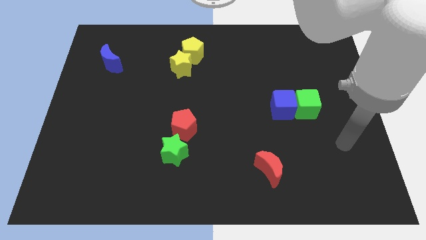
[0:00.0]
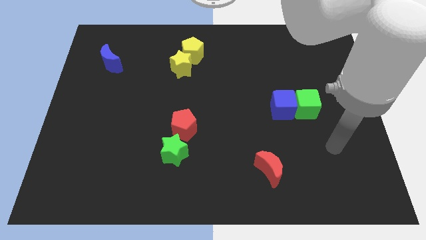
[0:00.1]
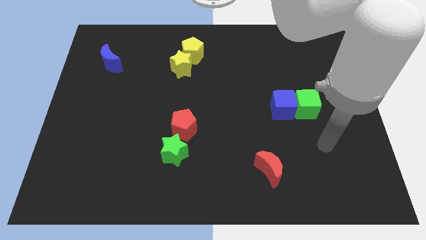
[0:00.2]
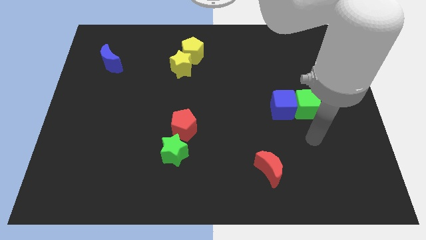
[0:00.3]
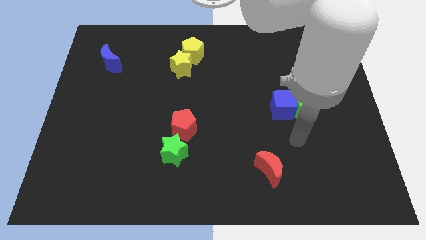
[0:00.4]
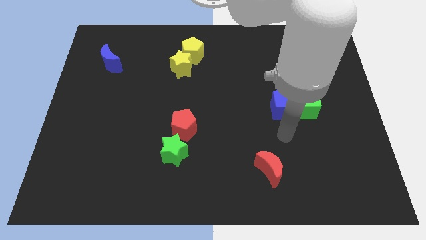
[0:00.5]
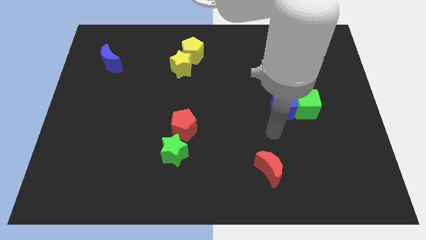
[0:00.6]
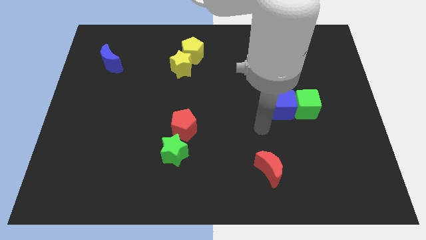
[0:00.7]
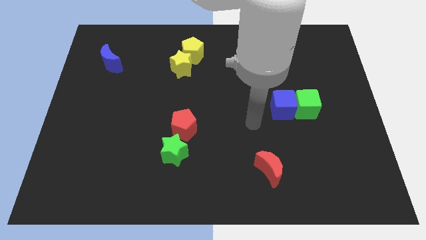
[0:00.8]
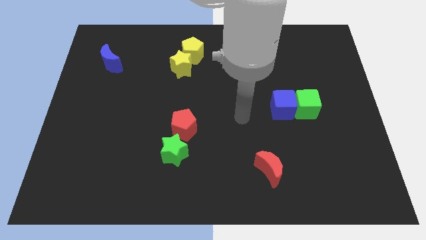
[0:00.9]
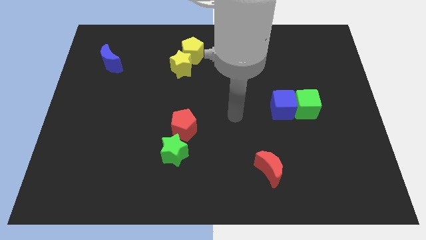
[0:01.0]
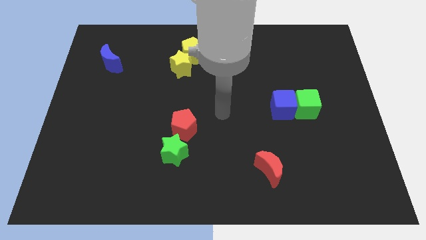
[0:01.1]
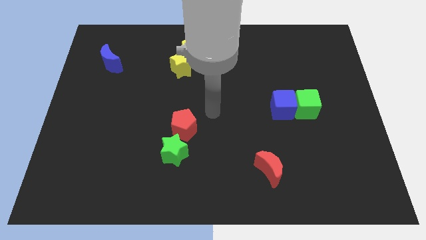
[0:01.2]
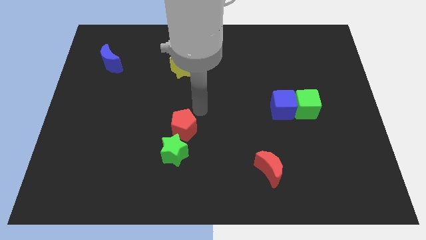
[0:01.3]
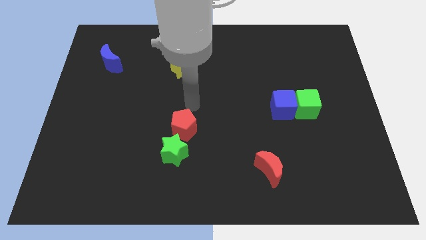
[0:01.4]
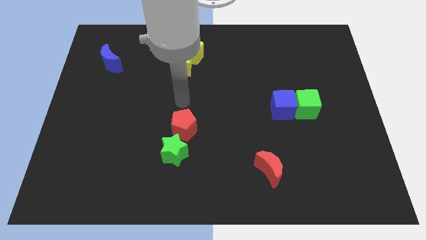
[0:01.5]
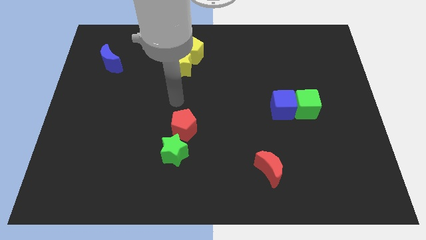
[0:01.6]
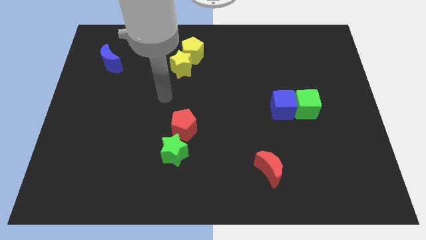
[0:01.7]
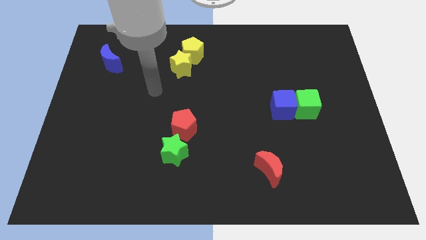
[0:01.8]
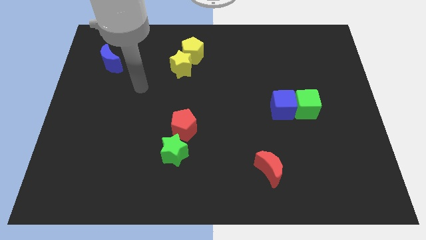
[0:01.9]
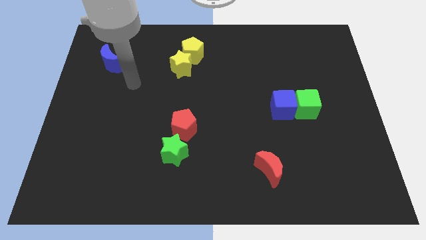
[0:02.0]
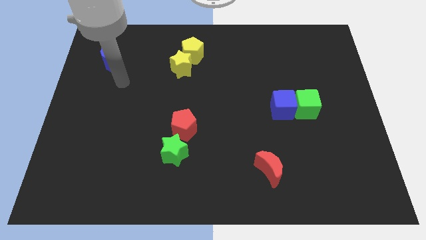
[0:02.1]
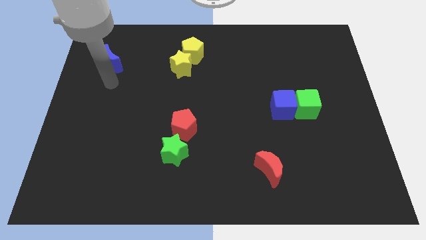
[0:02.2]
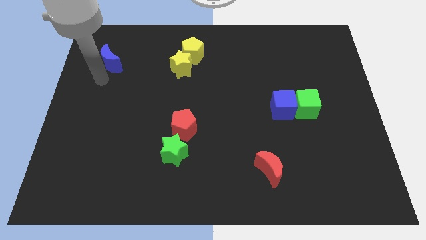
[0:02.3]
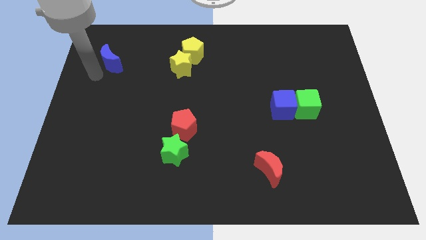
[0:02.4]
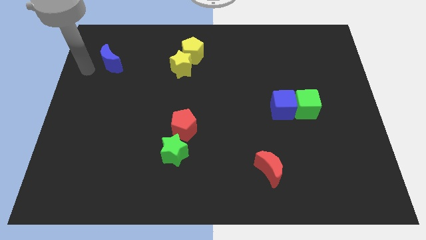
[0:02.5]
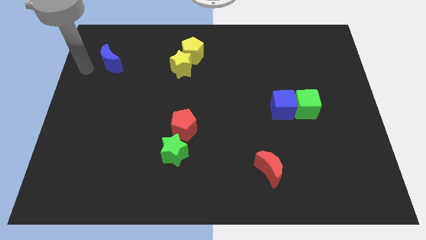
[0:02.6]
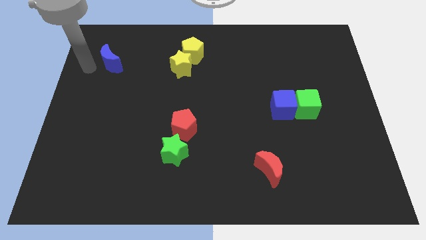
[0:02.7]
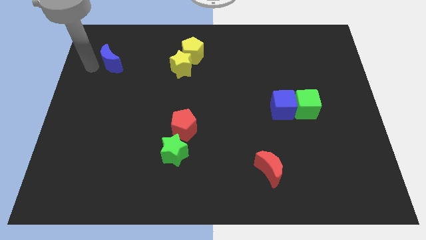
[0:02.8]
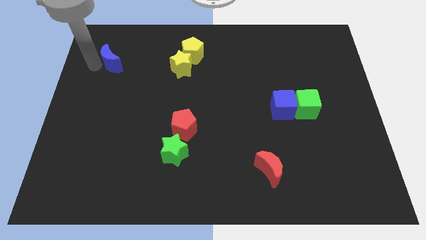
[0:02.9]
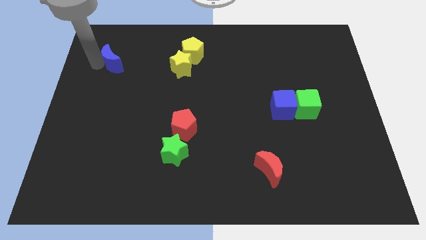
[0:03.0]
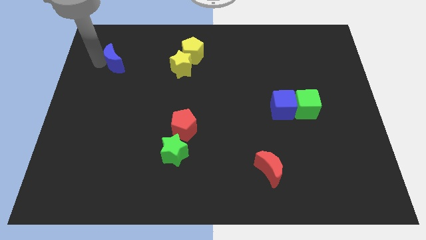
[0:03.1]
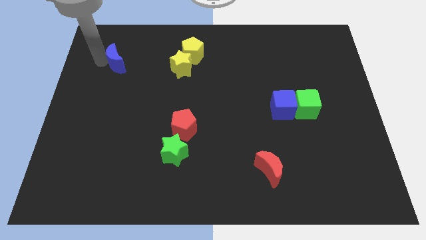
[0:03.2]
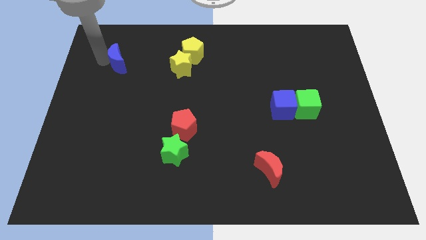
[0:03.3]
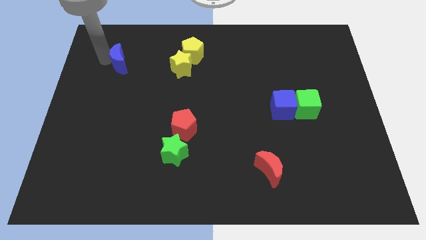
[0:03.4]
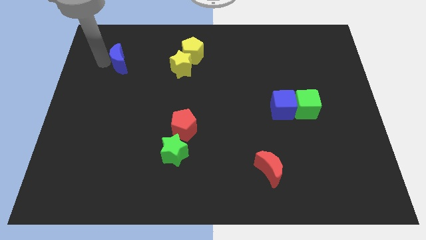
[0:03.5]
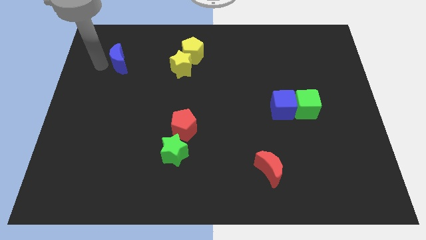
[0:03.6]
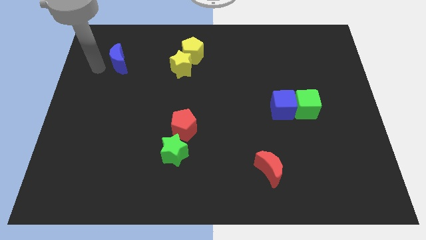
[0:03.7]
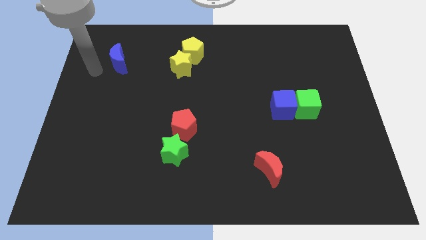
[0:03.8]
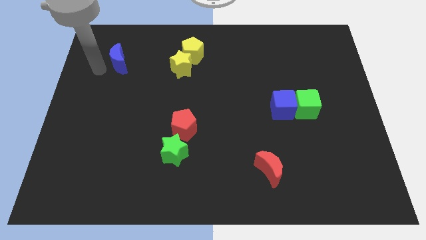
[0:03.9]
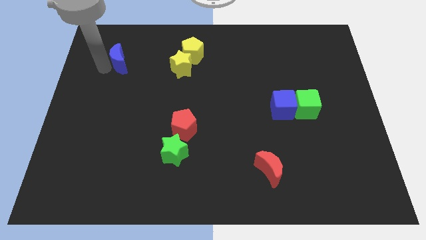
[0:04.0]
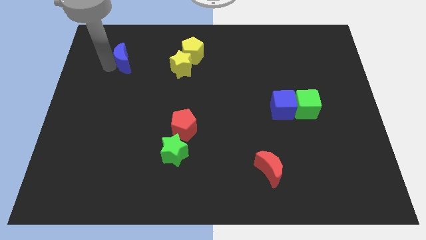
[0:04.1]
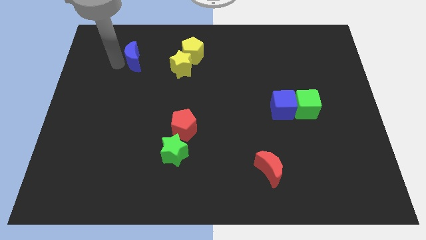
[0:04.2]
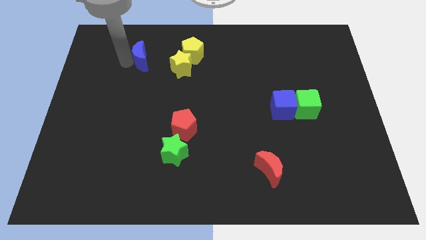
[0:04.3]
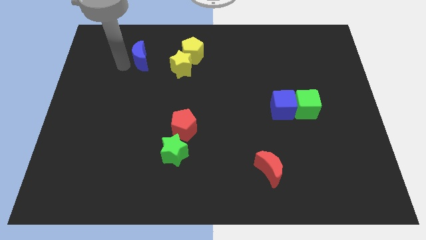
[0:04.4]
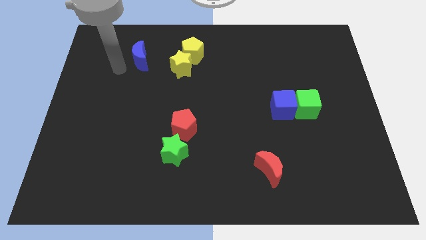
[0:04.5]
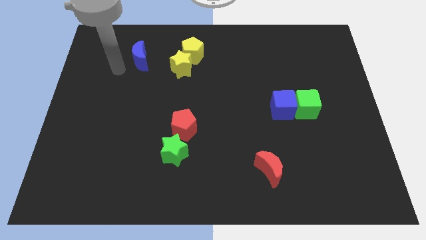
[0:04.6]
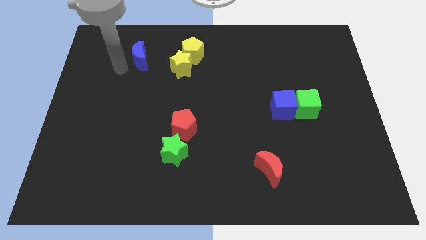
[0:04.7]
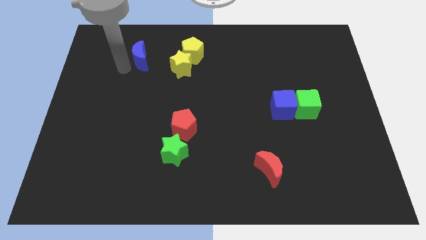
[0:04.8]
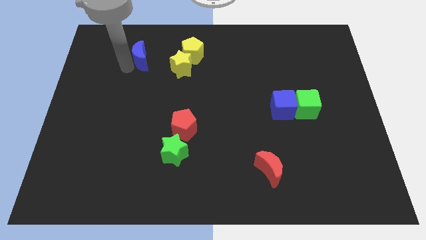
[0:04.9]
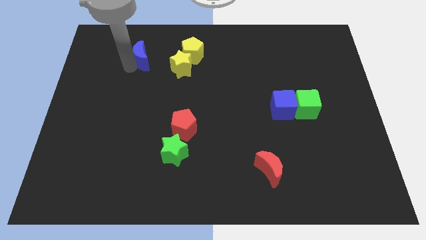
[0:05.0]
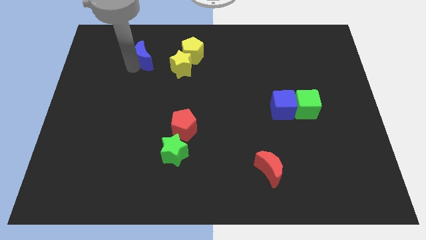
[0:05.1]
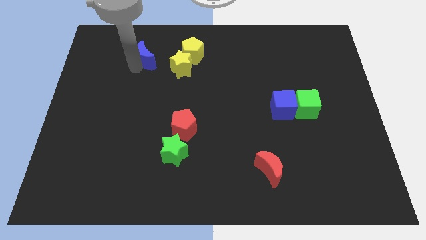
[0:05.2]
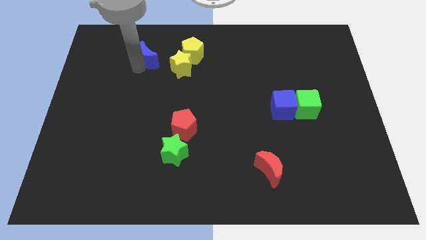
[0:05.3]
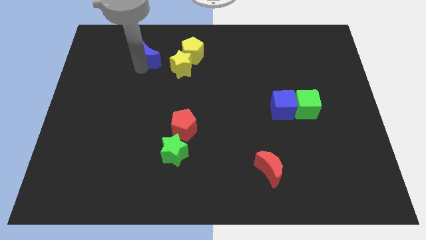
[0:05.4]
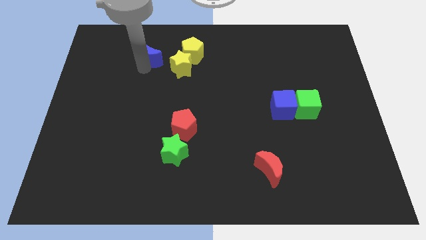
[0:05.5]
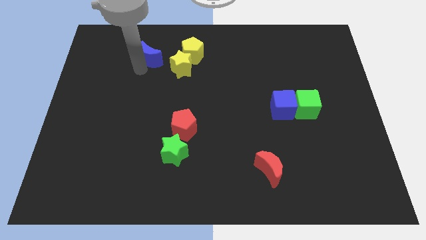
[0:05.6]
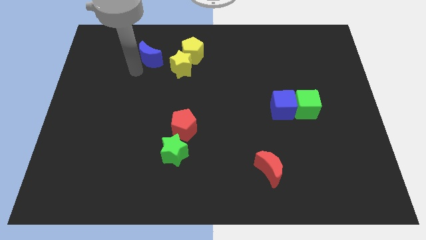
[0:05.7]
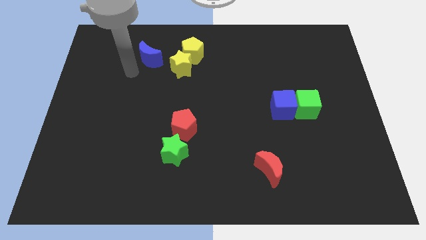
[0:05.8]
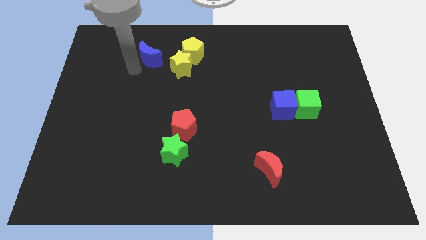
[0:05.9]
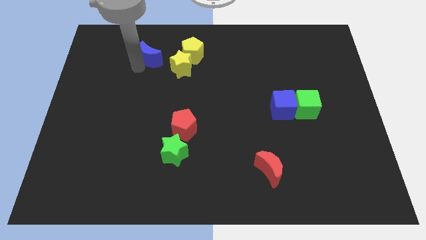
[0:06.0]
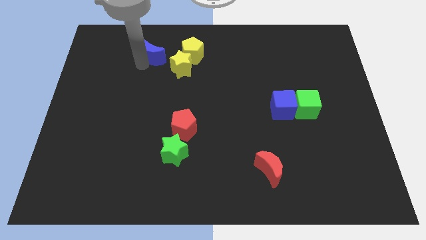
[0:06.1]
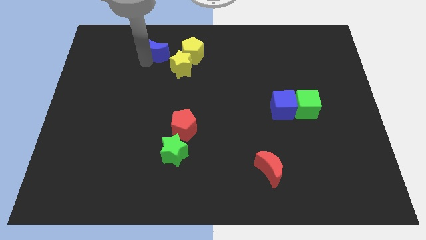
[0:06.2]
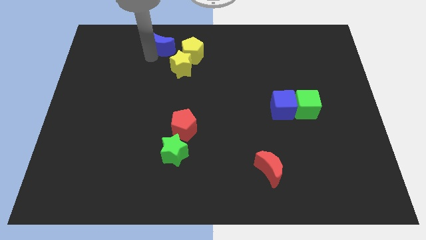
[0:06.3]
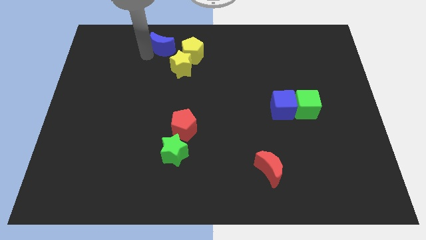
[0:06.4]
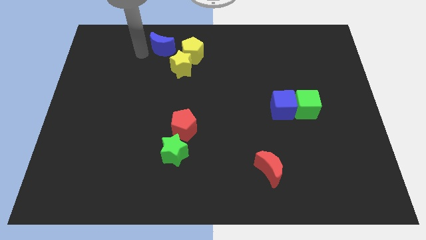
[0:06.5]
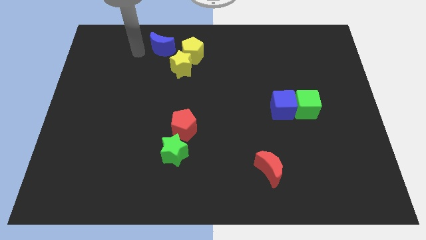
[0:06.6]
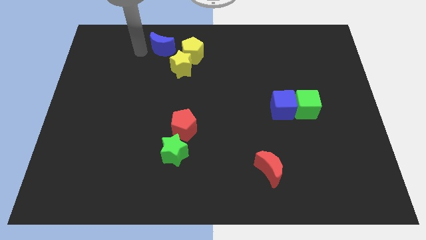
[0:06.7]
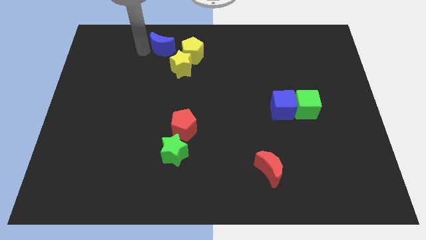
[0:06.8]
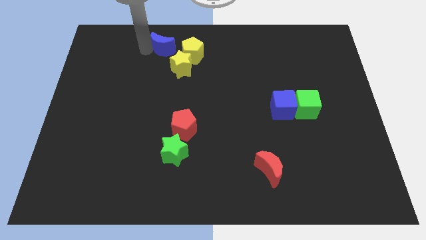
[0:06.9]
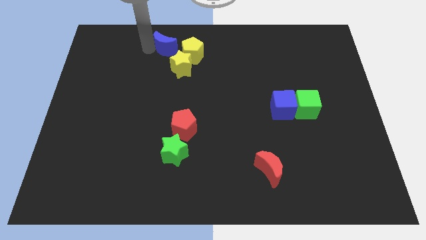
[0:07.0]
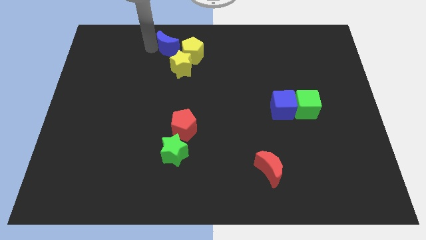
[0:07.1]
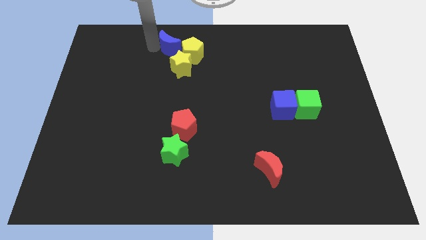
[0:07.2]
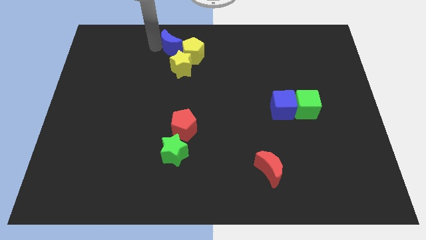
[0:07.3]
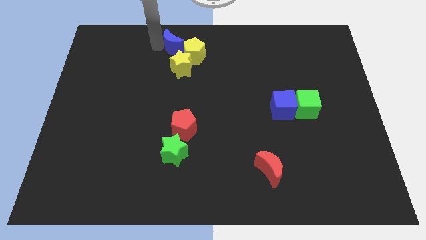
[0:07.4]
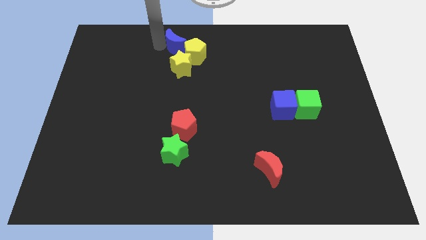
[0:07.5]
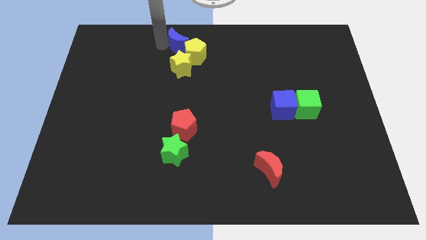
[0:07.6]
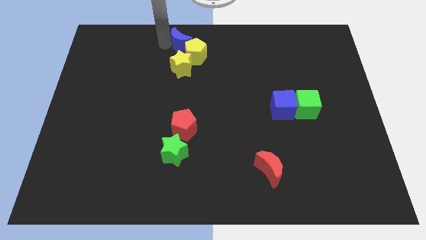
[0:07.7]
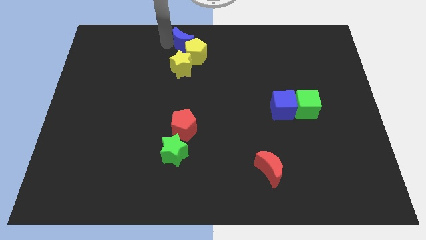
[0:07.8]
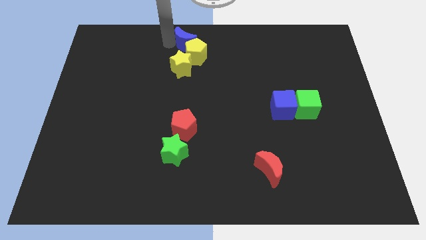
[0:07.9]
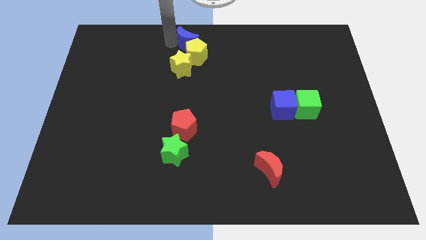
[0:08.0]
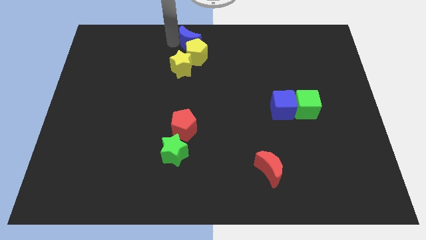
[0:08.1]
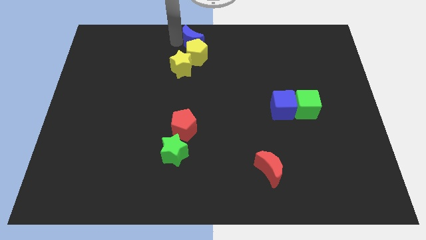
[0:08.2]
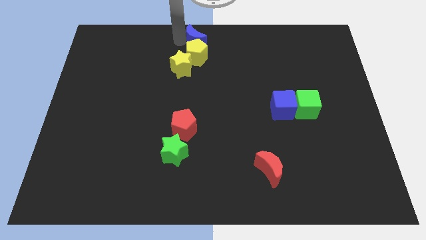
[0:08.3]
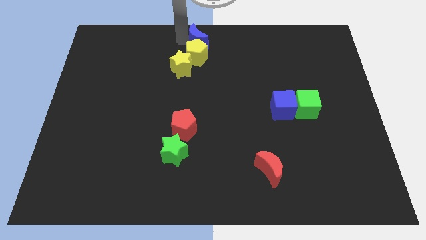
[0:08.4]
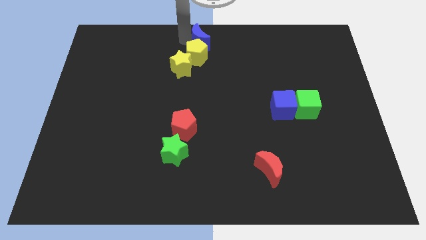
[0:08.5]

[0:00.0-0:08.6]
slide the blue moon right
